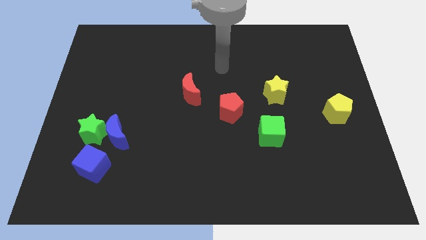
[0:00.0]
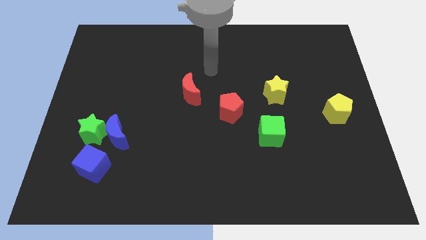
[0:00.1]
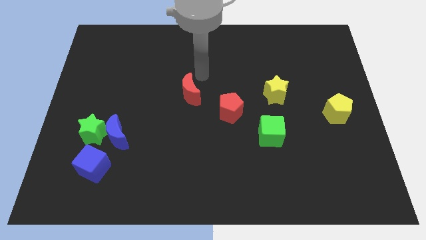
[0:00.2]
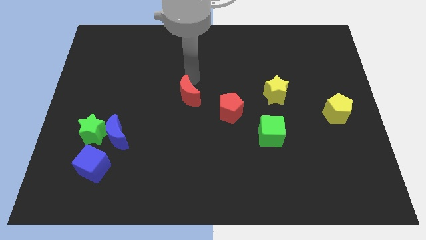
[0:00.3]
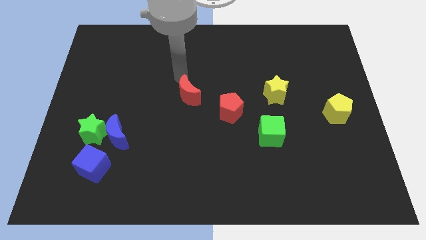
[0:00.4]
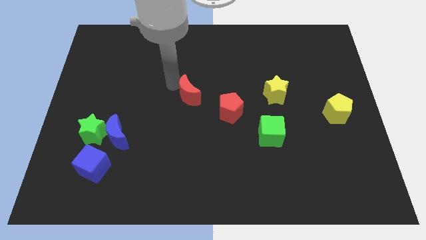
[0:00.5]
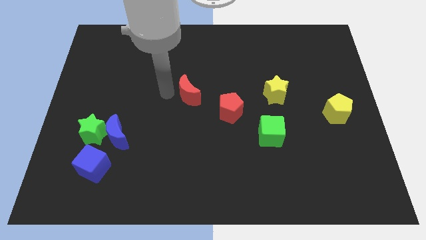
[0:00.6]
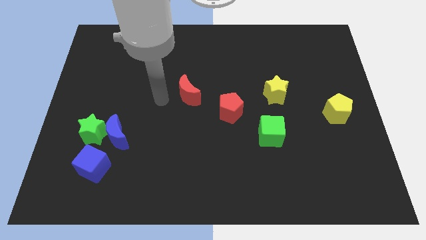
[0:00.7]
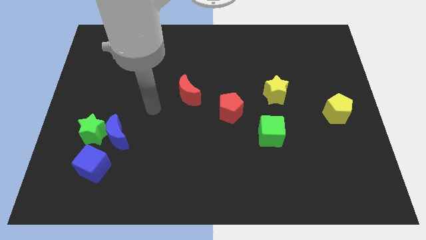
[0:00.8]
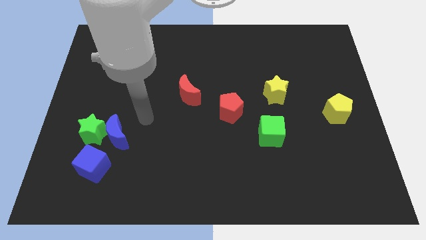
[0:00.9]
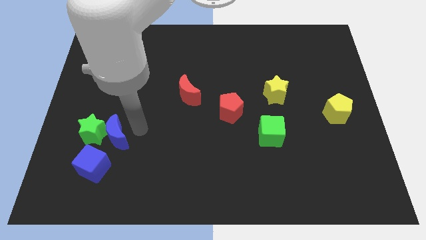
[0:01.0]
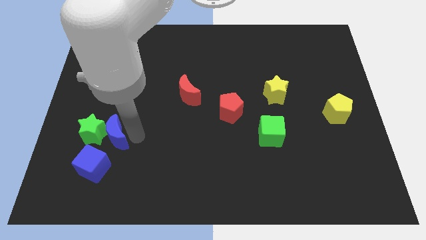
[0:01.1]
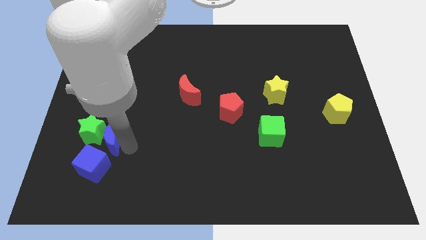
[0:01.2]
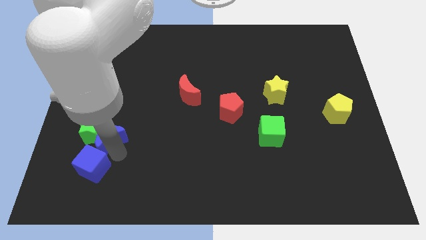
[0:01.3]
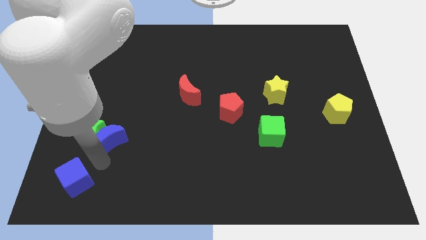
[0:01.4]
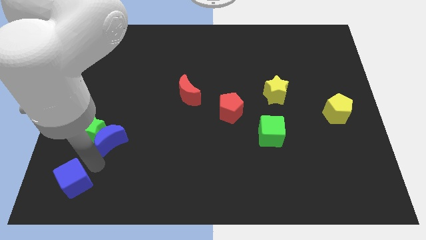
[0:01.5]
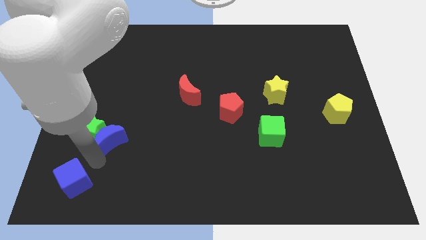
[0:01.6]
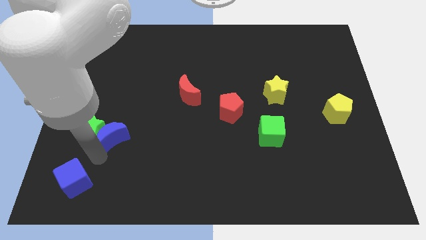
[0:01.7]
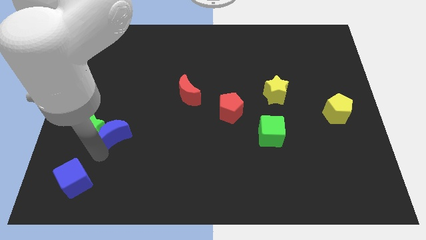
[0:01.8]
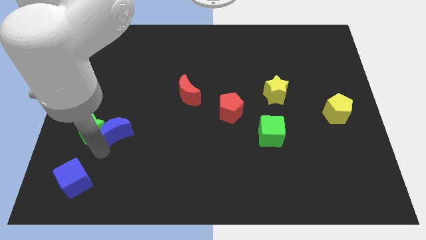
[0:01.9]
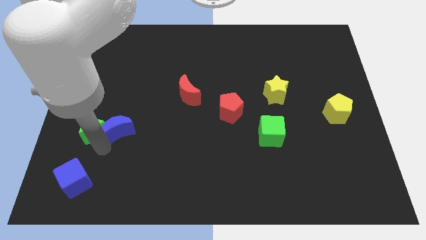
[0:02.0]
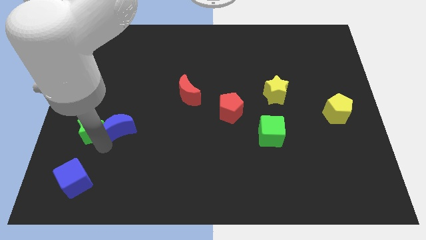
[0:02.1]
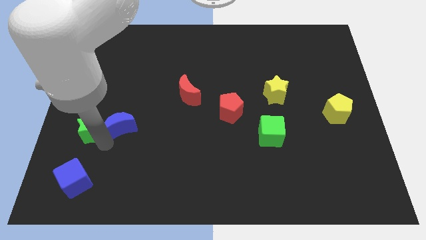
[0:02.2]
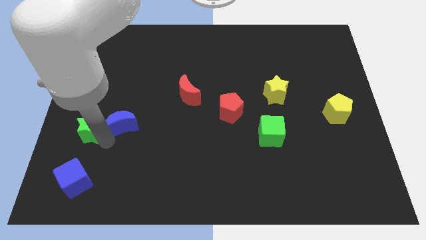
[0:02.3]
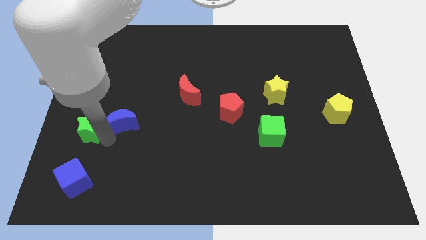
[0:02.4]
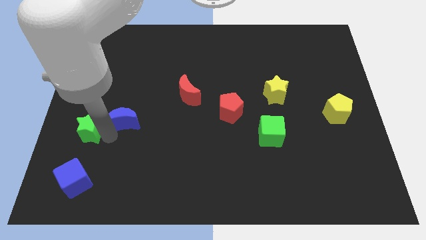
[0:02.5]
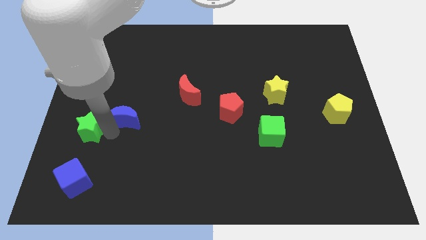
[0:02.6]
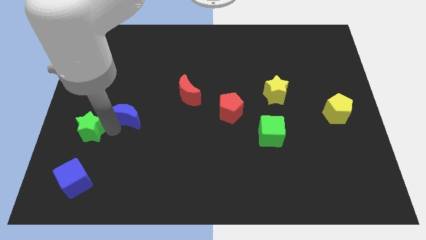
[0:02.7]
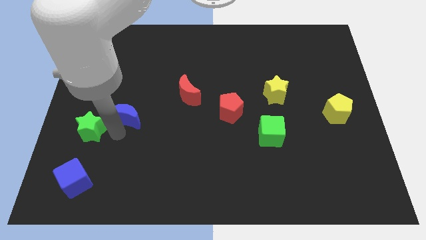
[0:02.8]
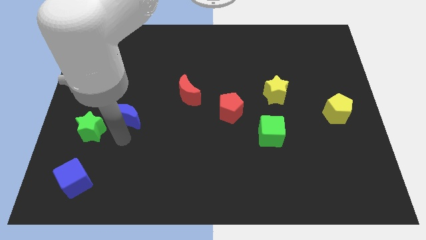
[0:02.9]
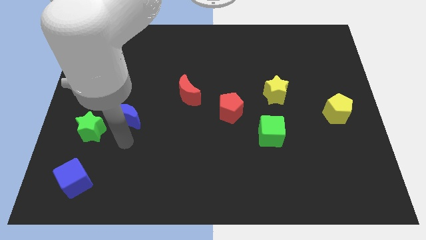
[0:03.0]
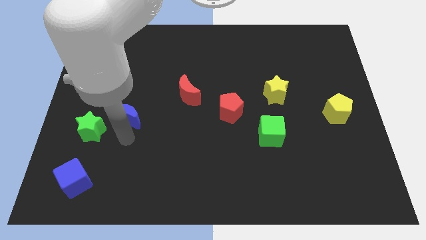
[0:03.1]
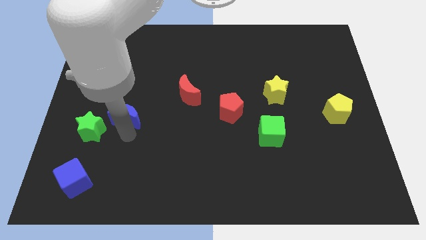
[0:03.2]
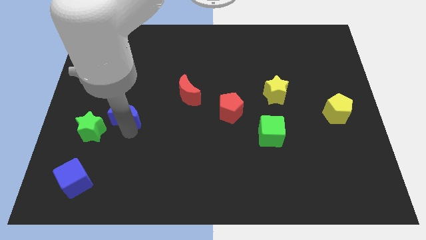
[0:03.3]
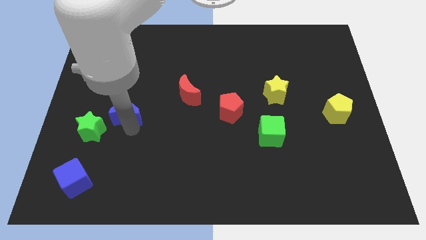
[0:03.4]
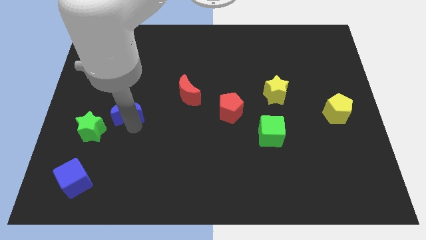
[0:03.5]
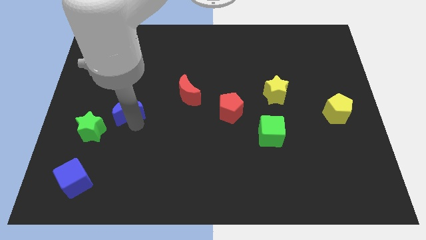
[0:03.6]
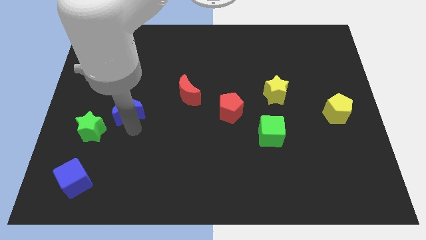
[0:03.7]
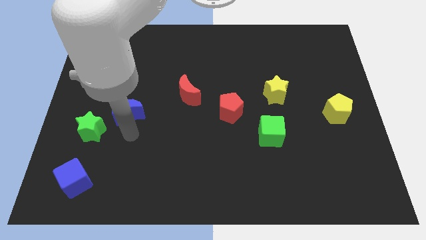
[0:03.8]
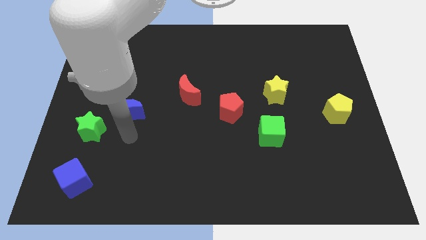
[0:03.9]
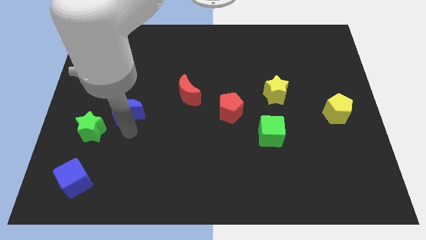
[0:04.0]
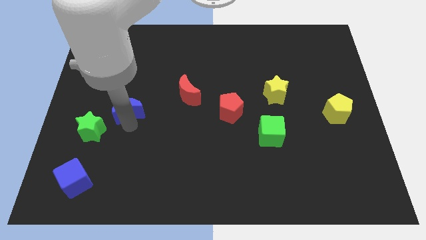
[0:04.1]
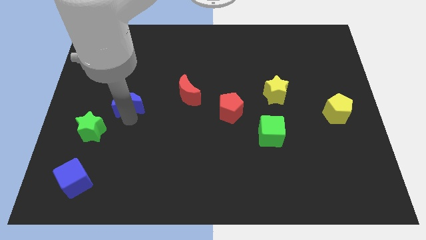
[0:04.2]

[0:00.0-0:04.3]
move the blue moon up slightly

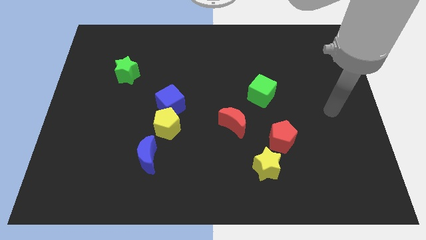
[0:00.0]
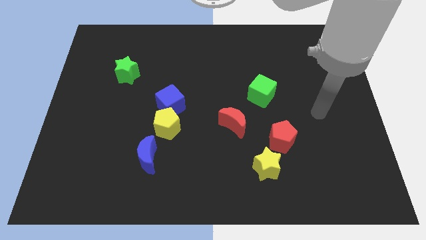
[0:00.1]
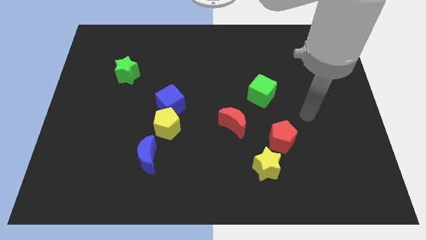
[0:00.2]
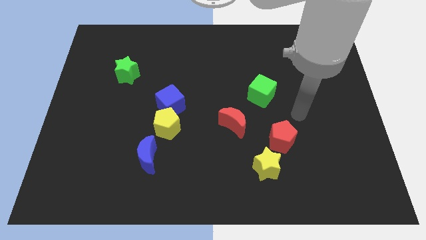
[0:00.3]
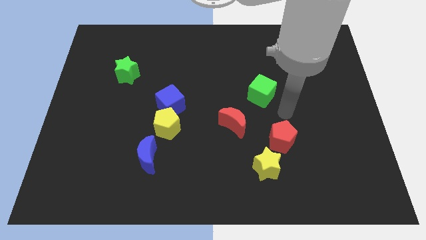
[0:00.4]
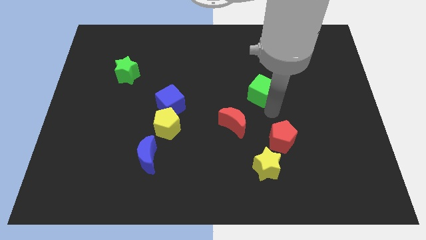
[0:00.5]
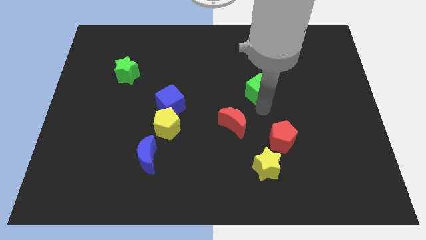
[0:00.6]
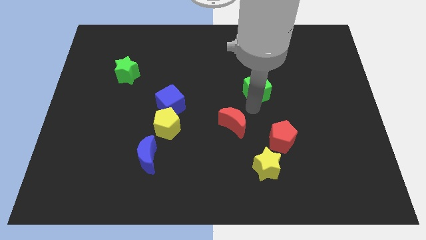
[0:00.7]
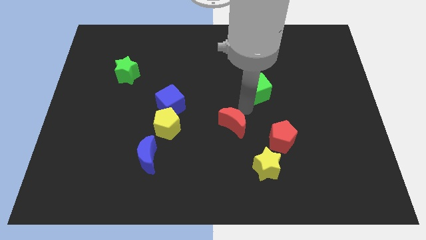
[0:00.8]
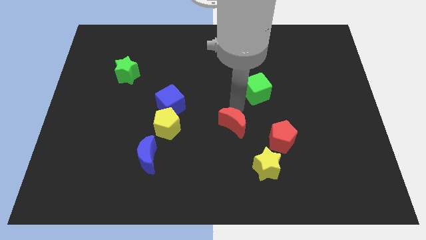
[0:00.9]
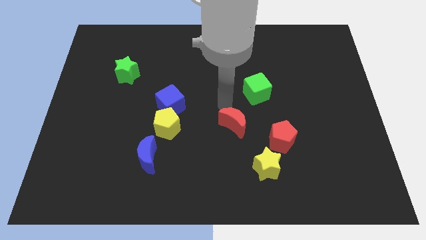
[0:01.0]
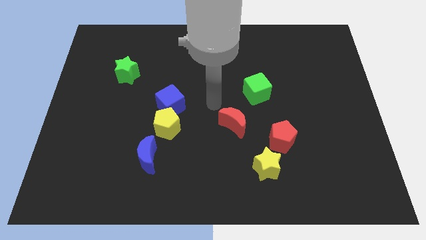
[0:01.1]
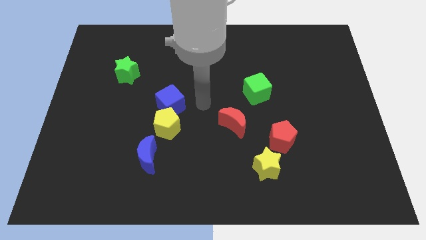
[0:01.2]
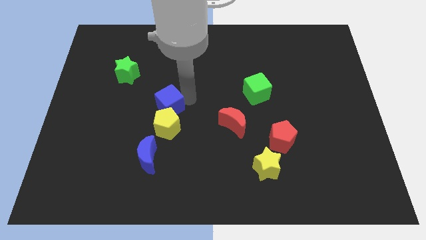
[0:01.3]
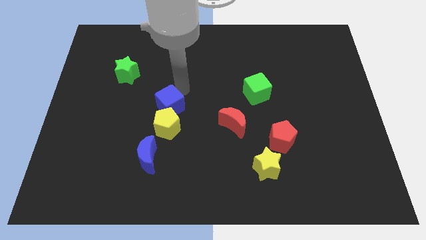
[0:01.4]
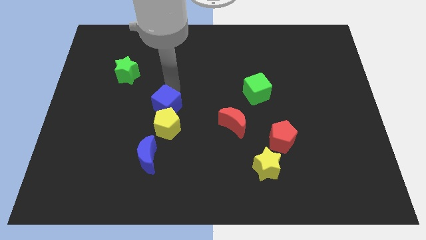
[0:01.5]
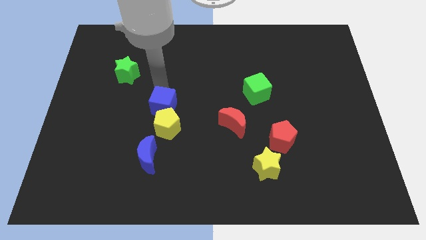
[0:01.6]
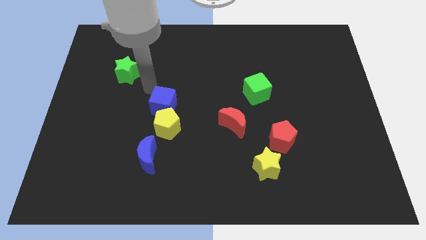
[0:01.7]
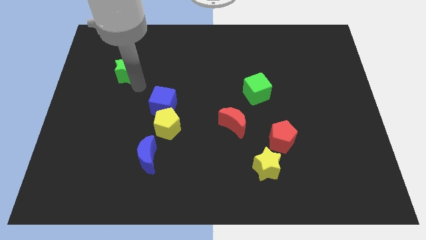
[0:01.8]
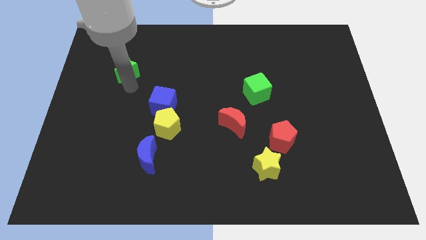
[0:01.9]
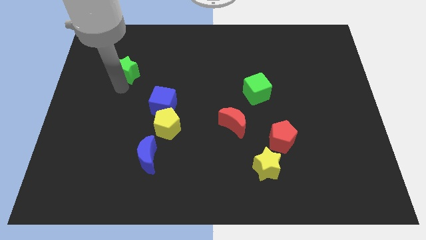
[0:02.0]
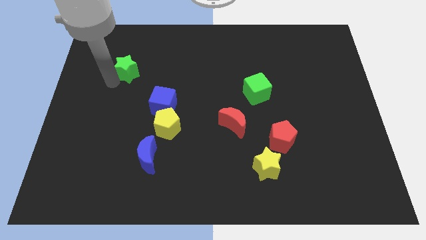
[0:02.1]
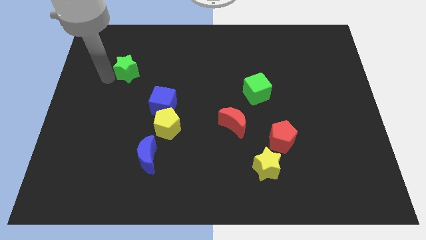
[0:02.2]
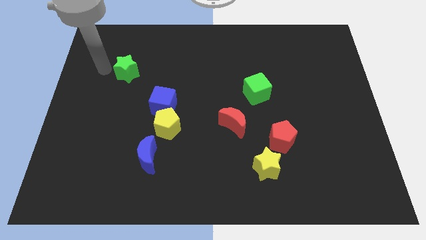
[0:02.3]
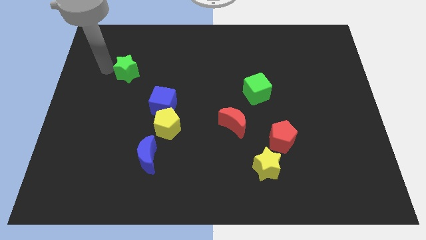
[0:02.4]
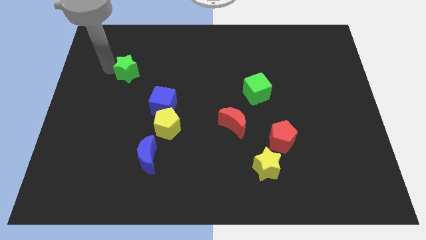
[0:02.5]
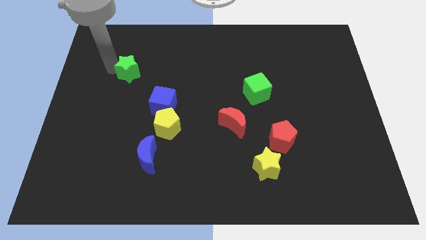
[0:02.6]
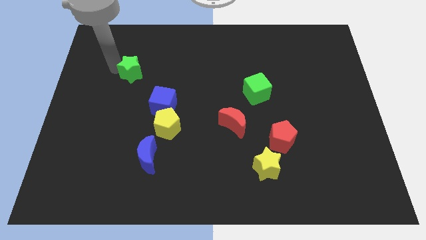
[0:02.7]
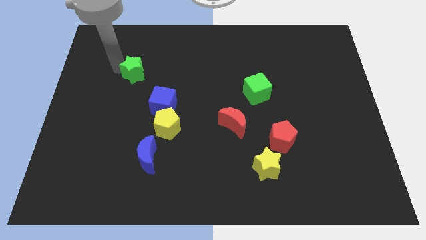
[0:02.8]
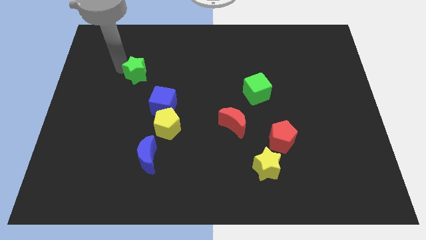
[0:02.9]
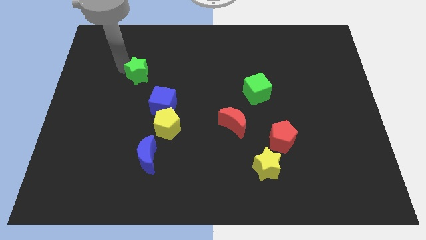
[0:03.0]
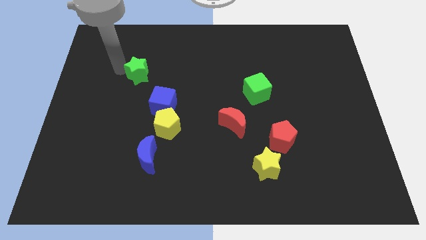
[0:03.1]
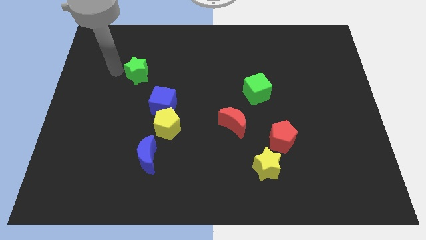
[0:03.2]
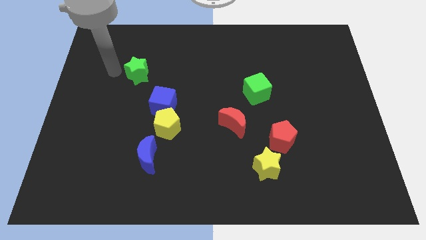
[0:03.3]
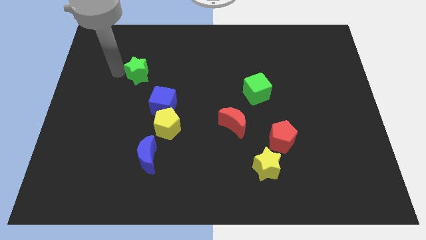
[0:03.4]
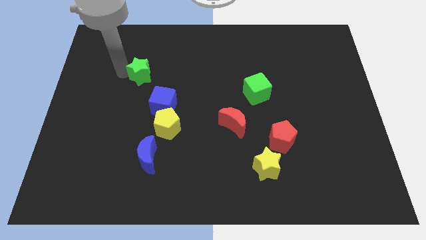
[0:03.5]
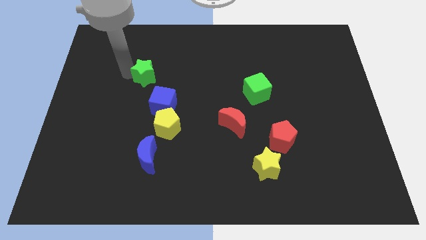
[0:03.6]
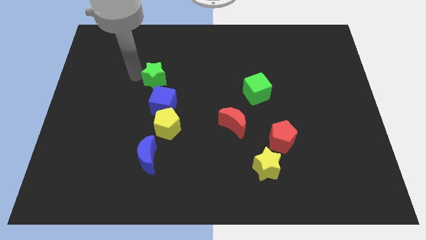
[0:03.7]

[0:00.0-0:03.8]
slightly move the green star to the right

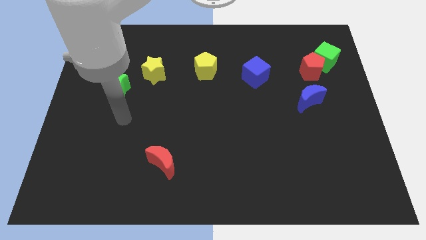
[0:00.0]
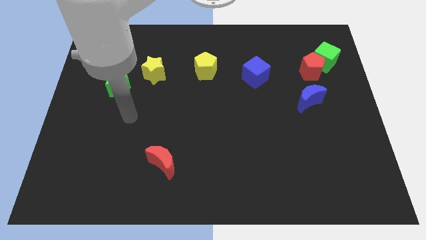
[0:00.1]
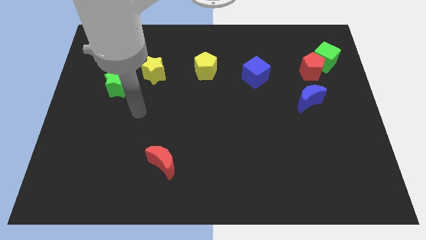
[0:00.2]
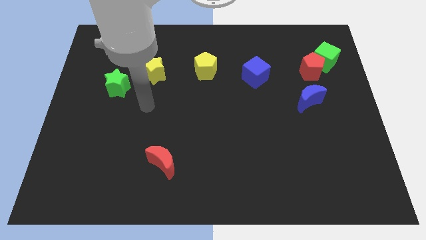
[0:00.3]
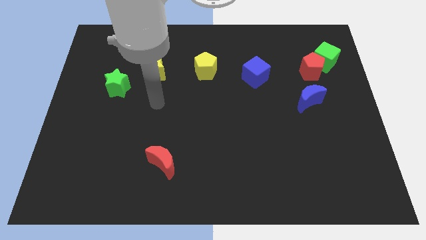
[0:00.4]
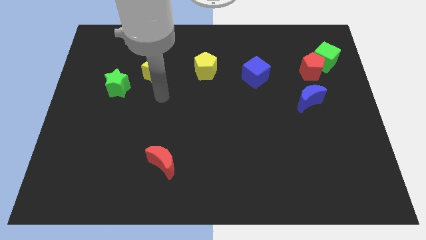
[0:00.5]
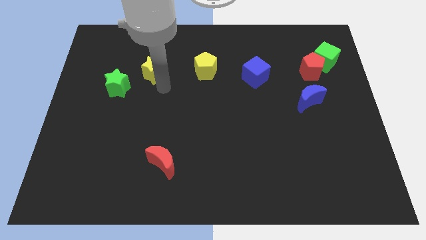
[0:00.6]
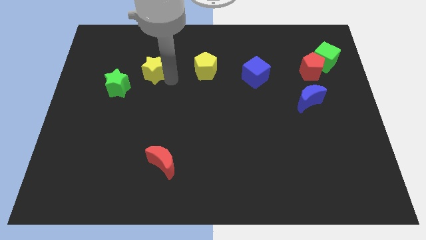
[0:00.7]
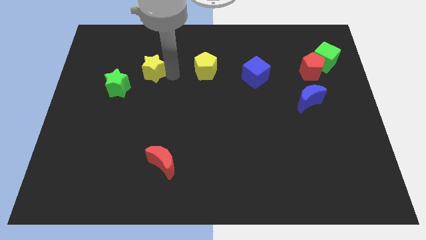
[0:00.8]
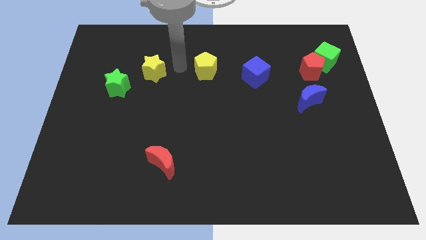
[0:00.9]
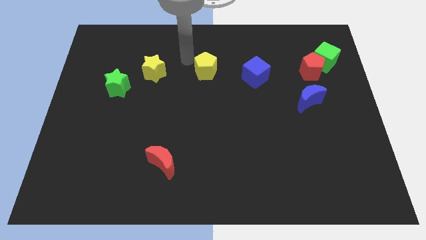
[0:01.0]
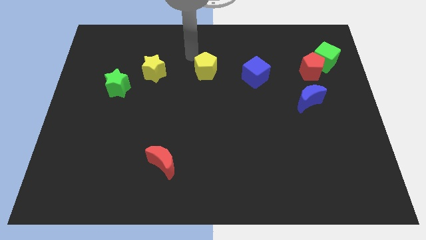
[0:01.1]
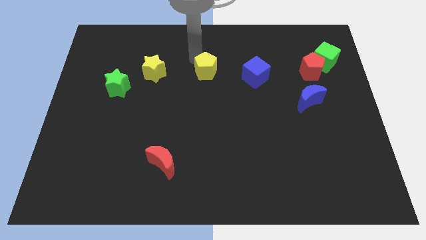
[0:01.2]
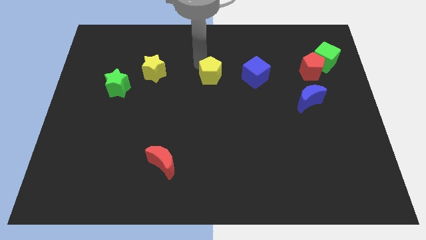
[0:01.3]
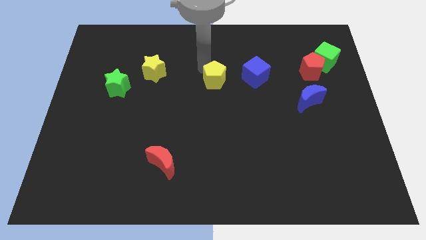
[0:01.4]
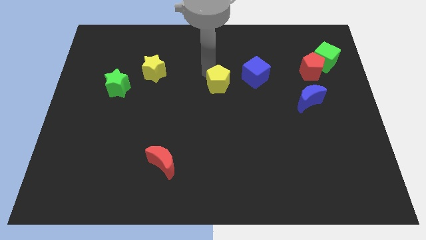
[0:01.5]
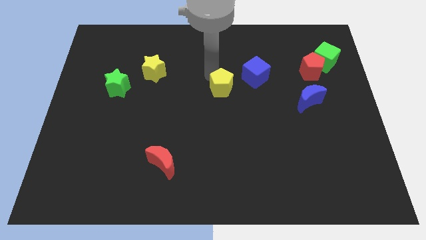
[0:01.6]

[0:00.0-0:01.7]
slide the yellow pentagon a bit down and to the right
